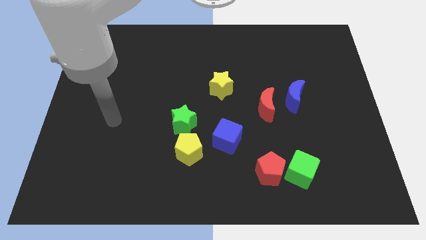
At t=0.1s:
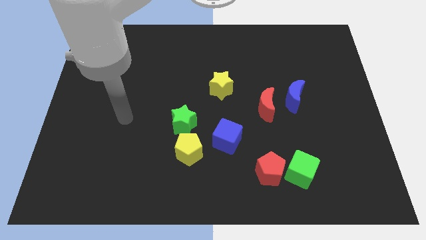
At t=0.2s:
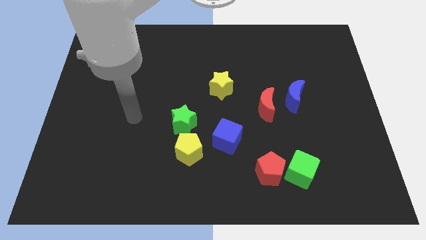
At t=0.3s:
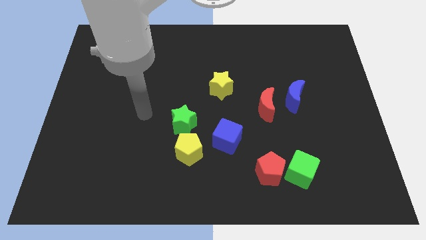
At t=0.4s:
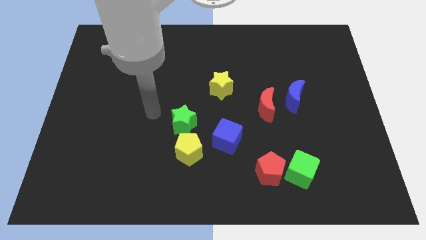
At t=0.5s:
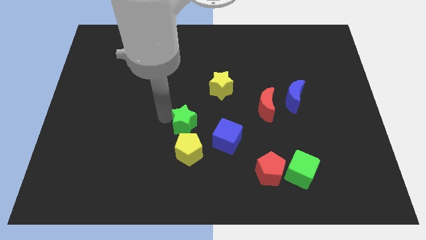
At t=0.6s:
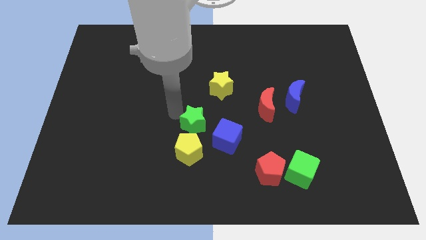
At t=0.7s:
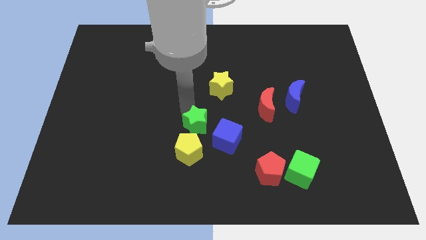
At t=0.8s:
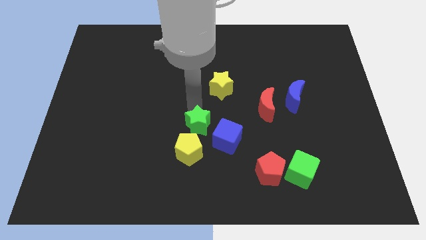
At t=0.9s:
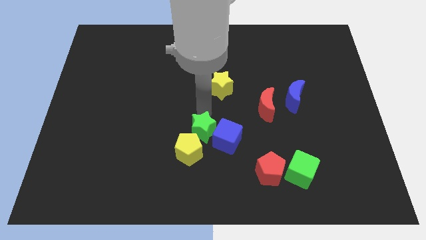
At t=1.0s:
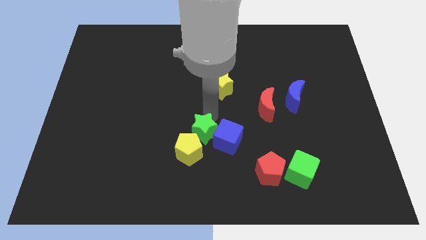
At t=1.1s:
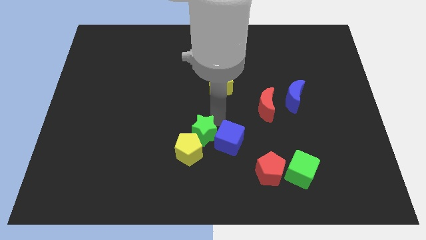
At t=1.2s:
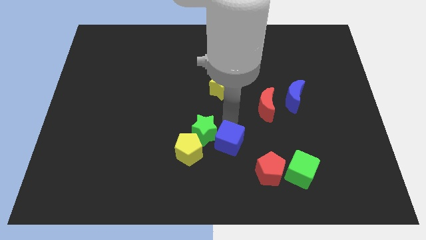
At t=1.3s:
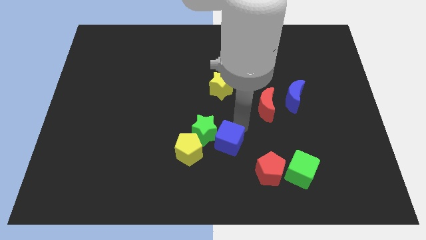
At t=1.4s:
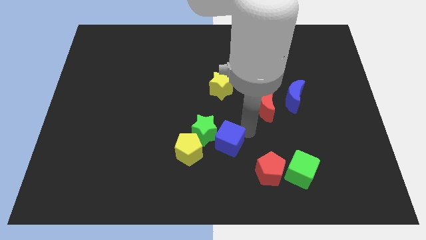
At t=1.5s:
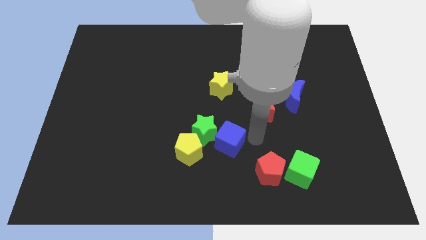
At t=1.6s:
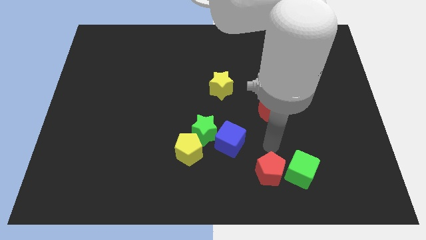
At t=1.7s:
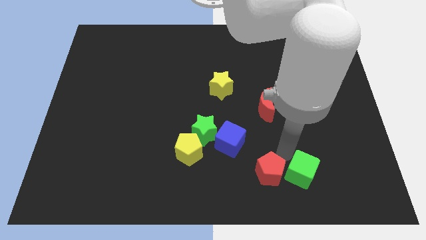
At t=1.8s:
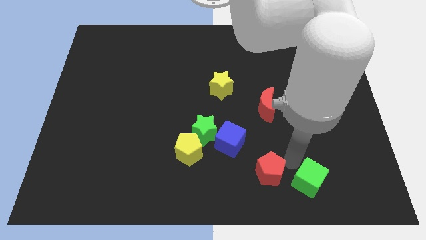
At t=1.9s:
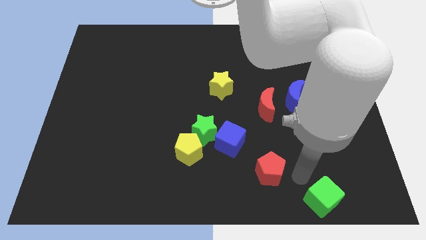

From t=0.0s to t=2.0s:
separate the red pentagon from the green cube

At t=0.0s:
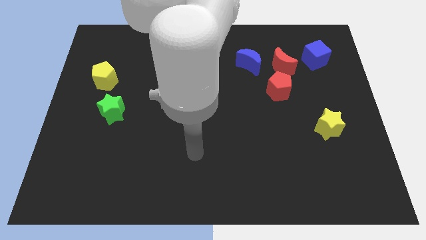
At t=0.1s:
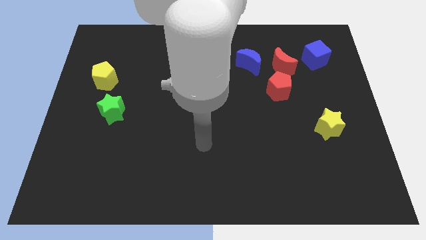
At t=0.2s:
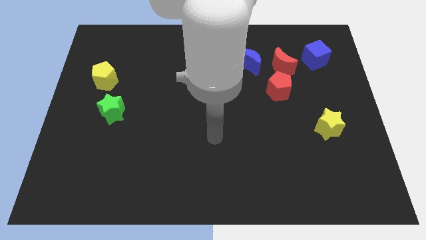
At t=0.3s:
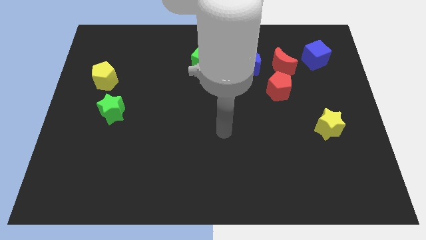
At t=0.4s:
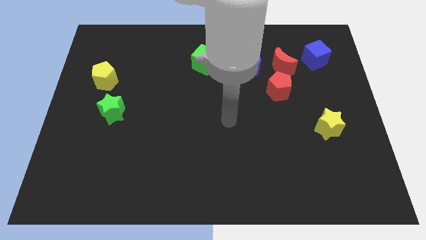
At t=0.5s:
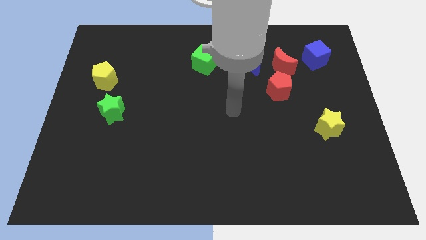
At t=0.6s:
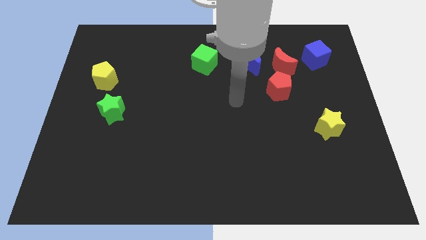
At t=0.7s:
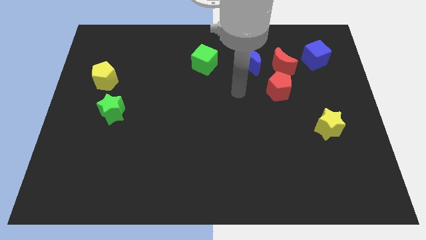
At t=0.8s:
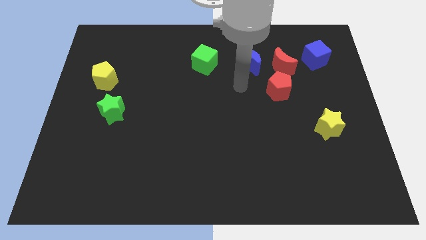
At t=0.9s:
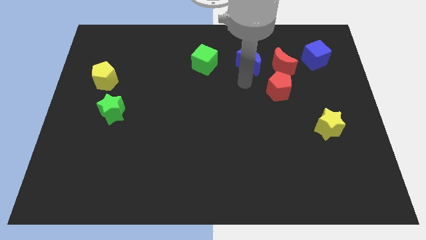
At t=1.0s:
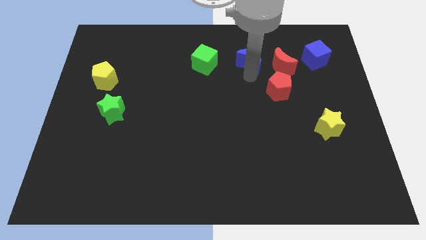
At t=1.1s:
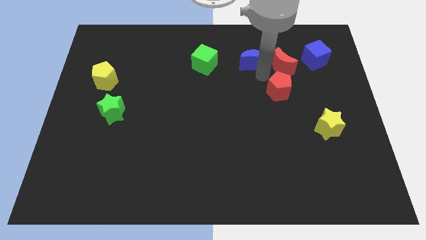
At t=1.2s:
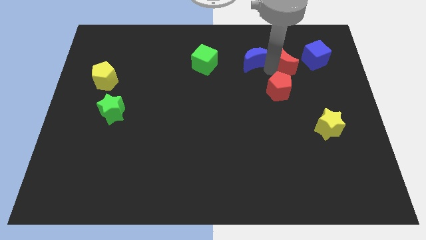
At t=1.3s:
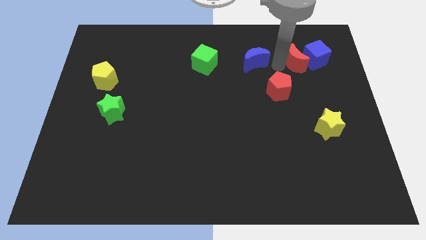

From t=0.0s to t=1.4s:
pull the blue moon apart from the red moon

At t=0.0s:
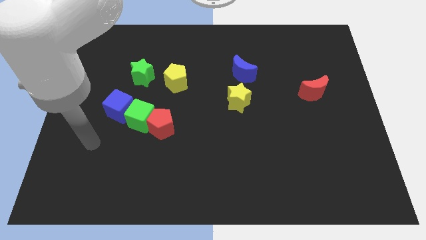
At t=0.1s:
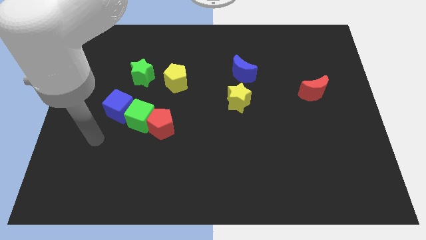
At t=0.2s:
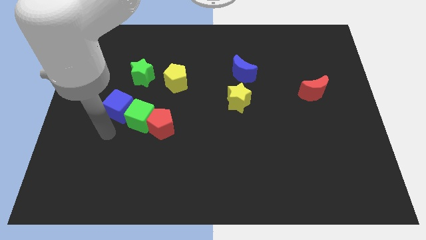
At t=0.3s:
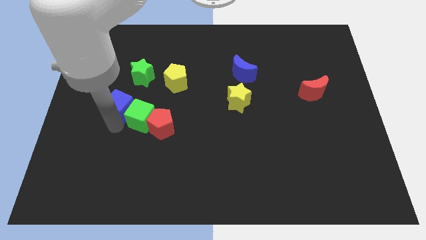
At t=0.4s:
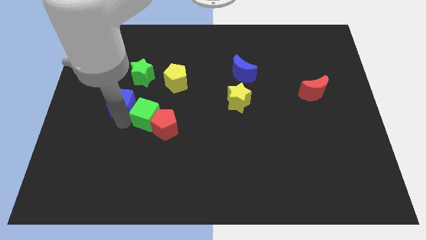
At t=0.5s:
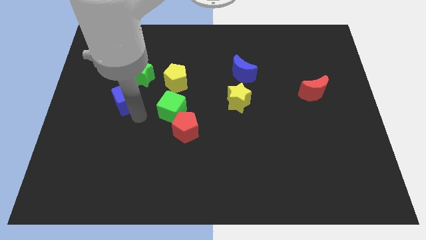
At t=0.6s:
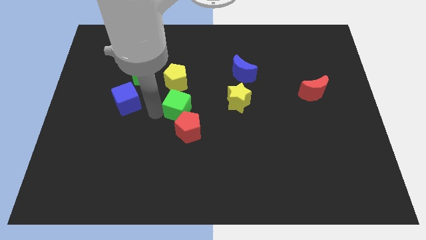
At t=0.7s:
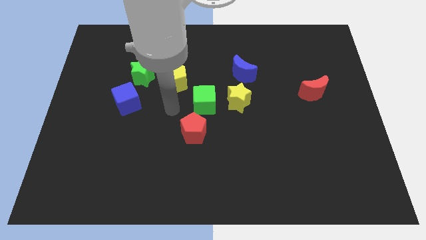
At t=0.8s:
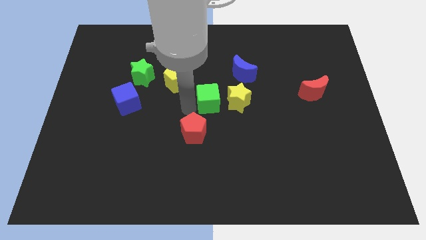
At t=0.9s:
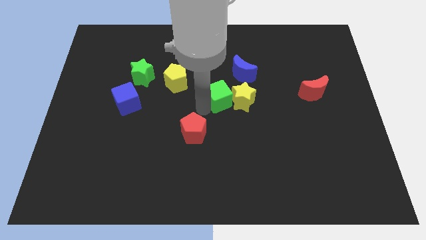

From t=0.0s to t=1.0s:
pull the red pentagon apart from the green cube

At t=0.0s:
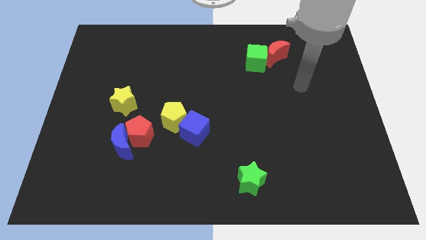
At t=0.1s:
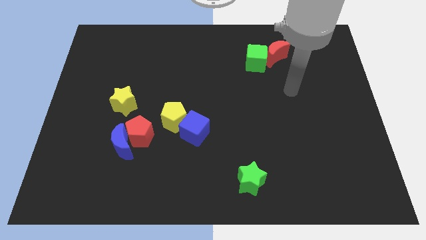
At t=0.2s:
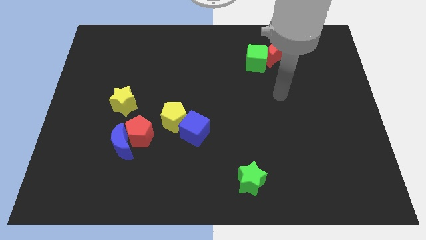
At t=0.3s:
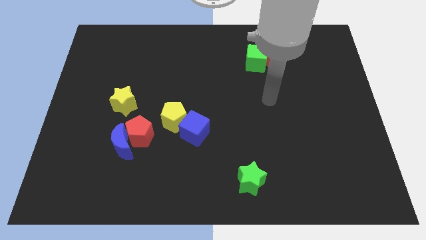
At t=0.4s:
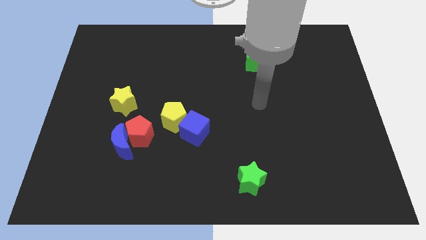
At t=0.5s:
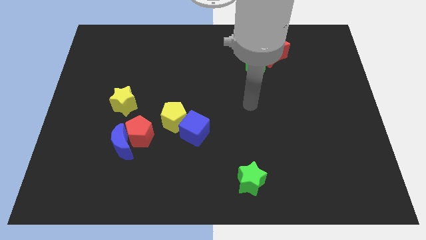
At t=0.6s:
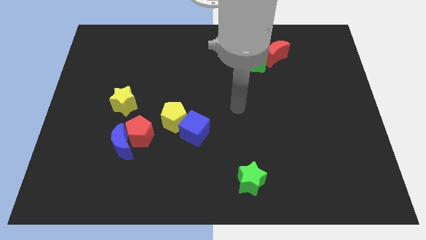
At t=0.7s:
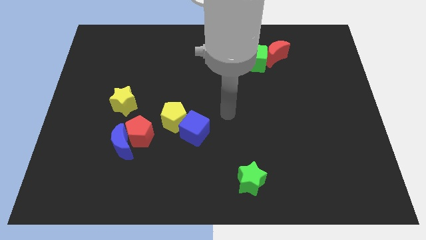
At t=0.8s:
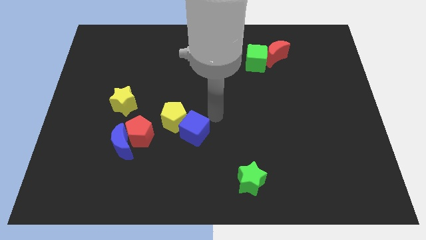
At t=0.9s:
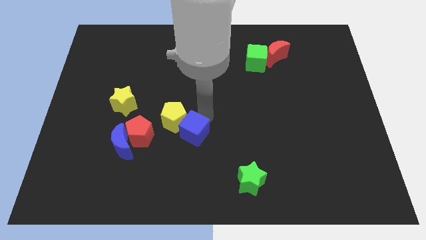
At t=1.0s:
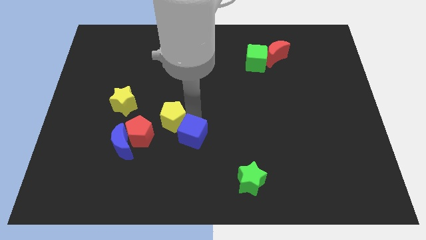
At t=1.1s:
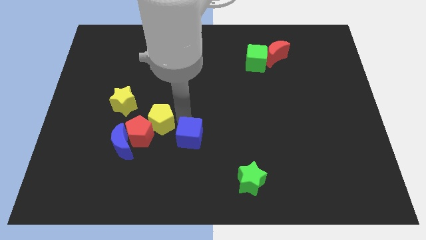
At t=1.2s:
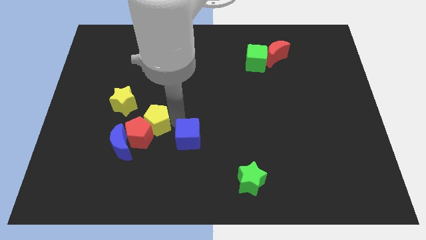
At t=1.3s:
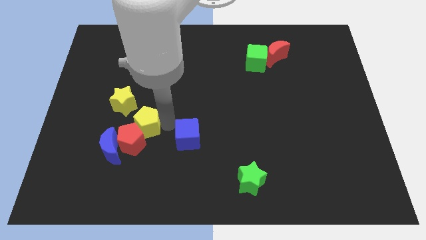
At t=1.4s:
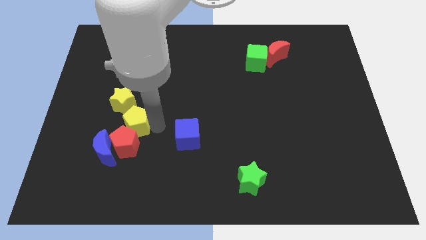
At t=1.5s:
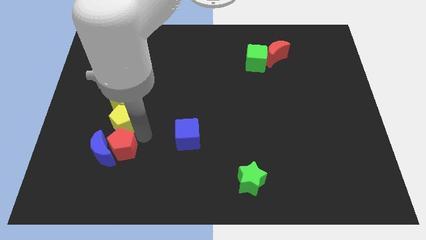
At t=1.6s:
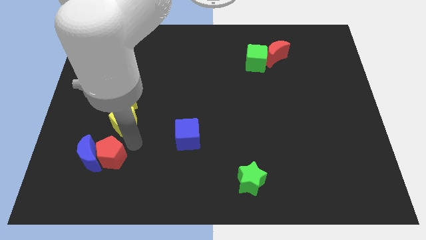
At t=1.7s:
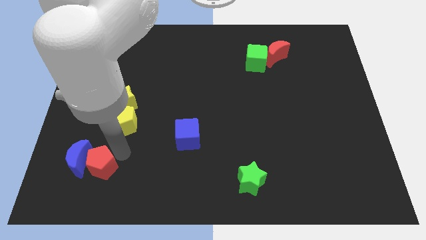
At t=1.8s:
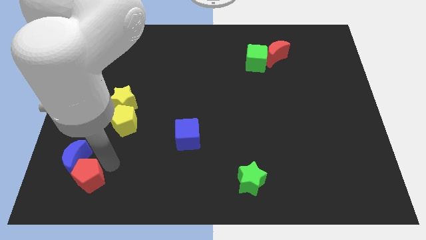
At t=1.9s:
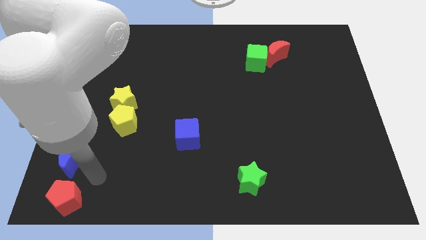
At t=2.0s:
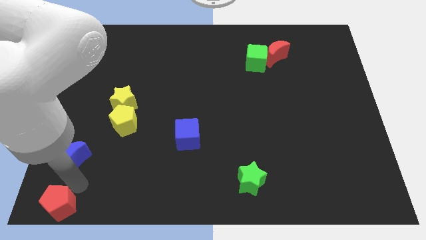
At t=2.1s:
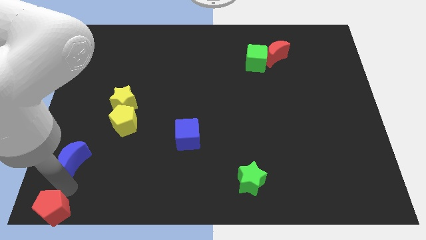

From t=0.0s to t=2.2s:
move the blue moon away from the red pentagon

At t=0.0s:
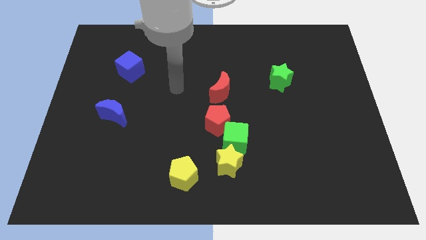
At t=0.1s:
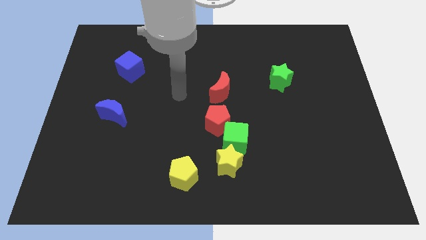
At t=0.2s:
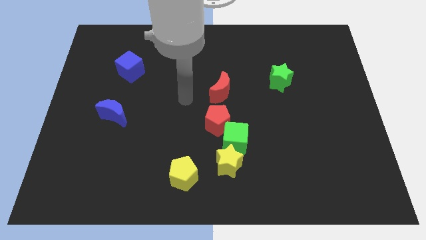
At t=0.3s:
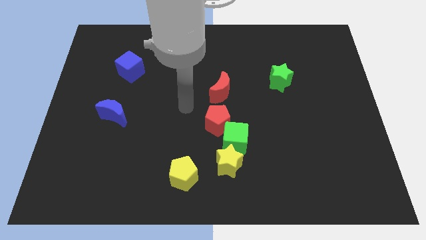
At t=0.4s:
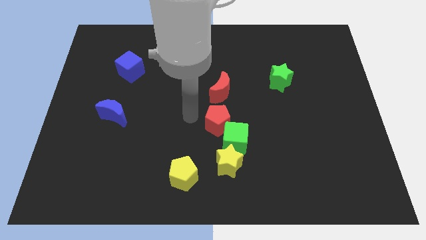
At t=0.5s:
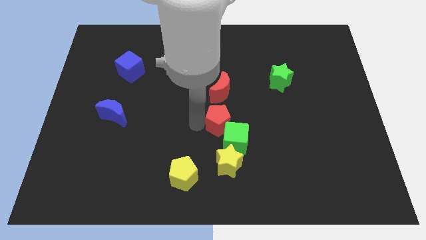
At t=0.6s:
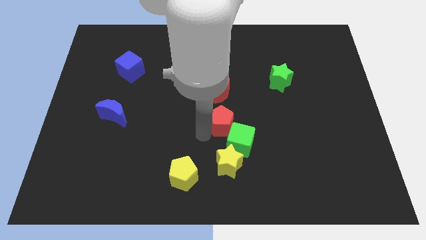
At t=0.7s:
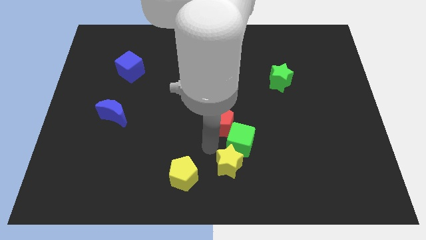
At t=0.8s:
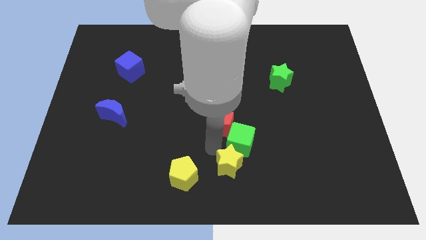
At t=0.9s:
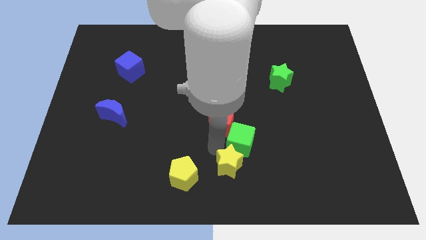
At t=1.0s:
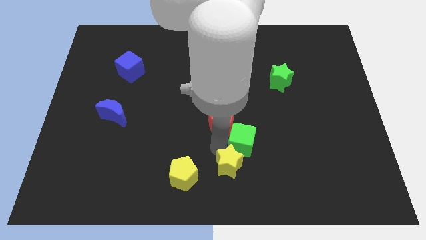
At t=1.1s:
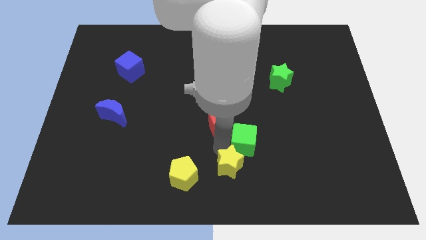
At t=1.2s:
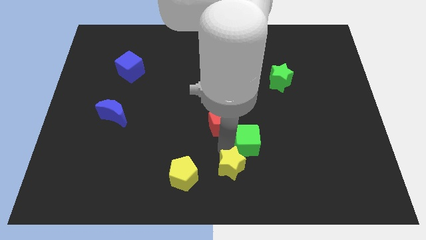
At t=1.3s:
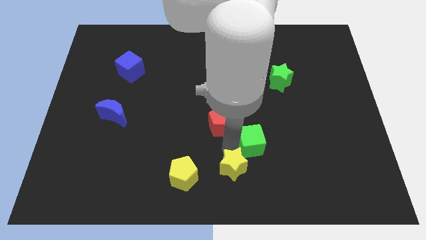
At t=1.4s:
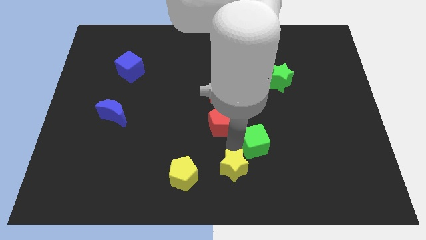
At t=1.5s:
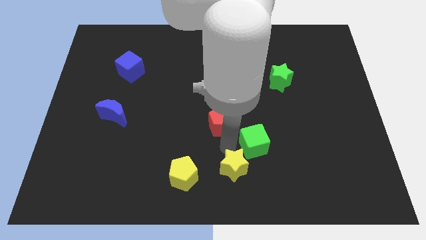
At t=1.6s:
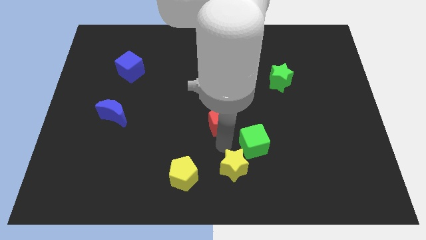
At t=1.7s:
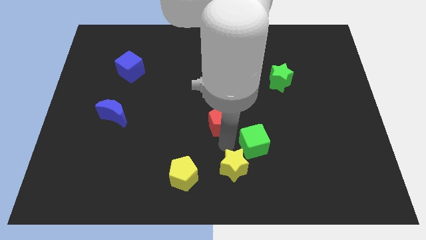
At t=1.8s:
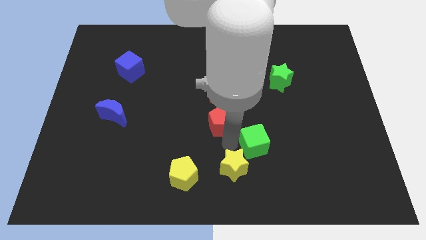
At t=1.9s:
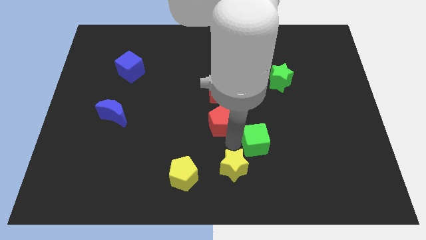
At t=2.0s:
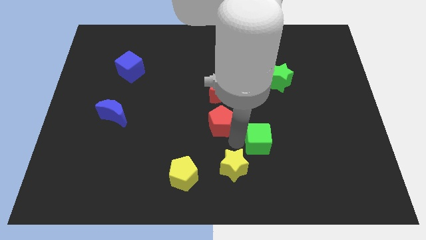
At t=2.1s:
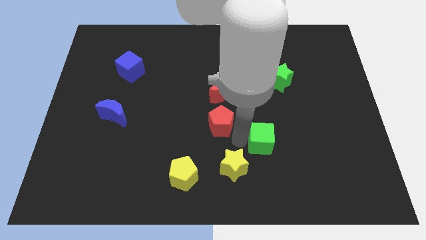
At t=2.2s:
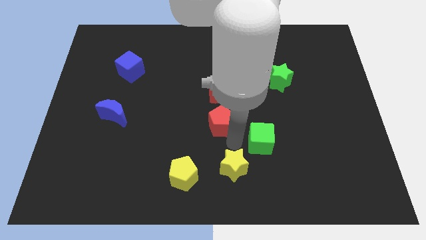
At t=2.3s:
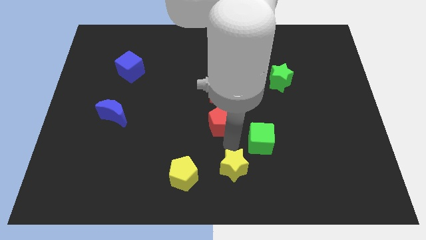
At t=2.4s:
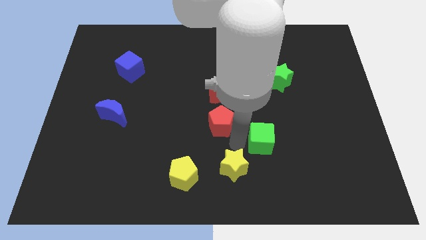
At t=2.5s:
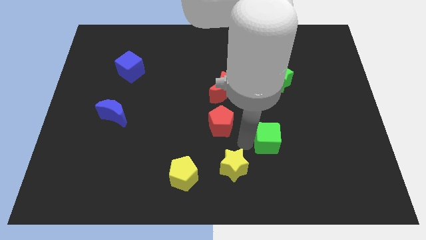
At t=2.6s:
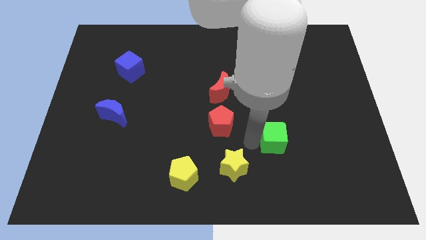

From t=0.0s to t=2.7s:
move the green cube away from the yellow star and red pentagon
